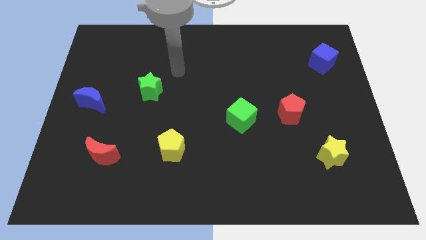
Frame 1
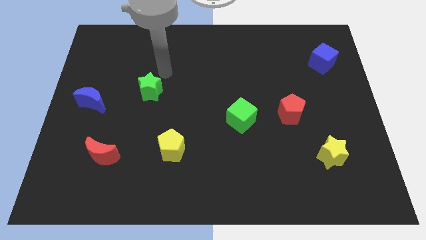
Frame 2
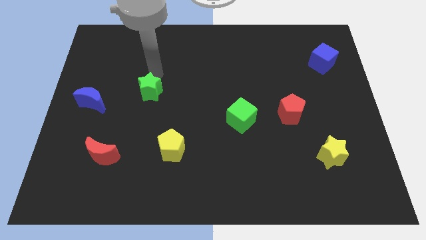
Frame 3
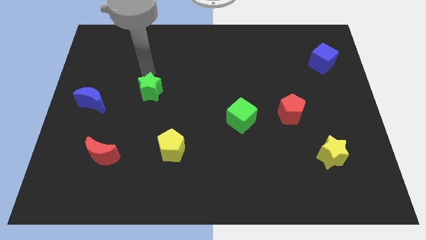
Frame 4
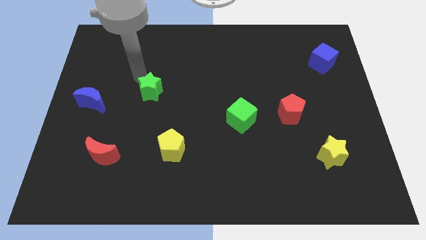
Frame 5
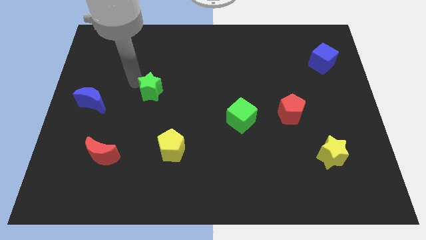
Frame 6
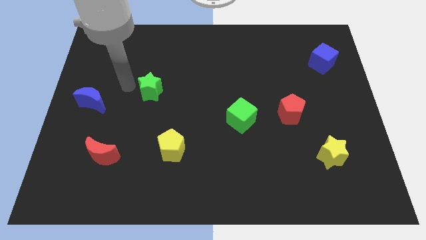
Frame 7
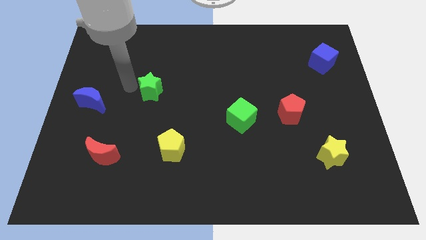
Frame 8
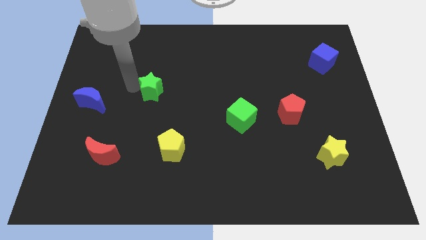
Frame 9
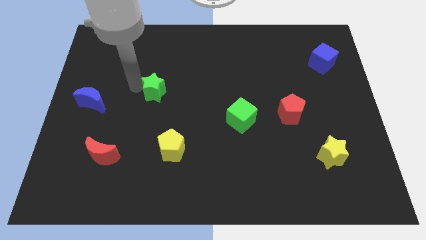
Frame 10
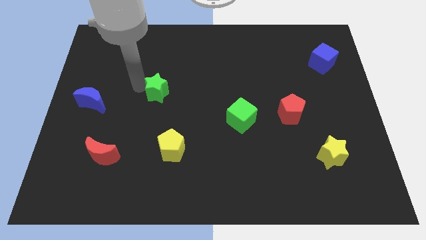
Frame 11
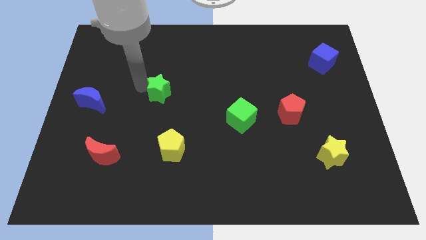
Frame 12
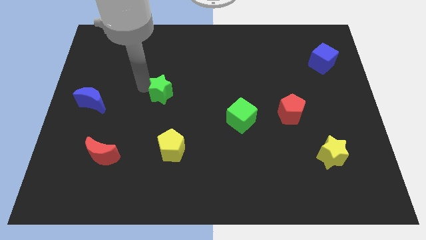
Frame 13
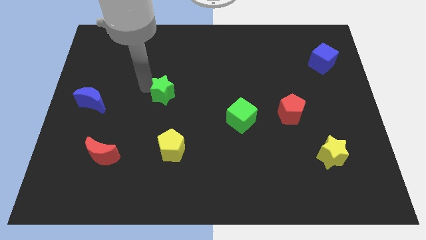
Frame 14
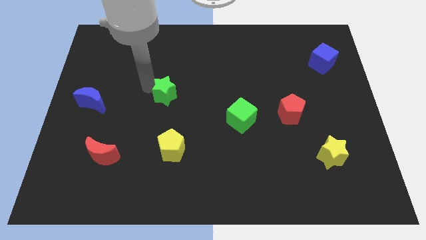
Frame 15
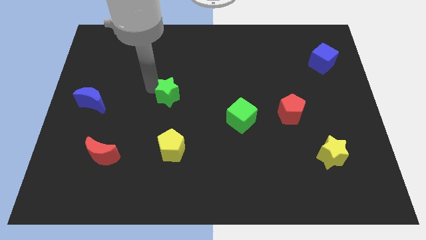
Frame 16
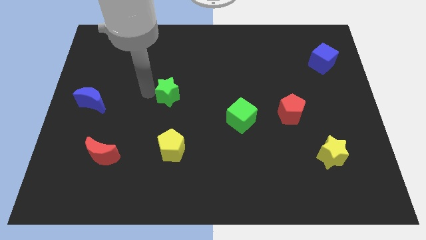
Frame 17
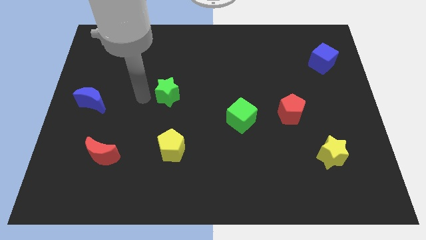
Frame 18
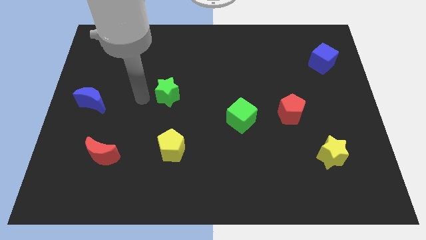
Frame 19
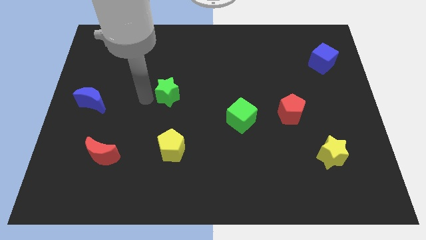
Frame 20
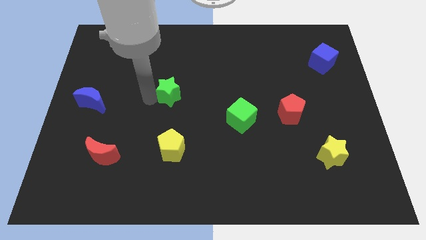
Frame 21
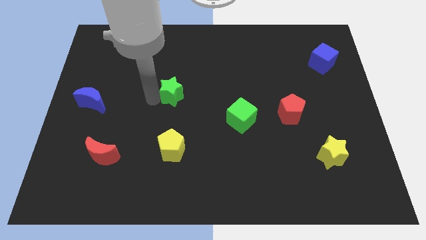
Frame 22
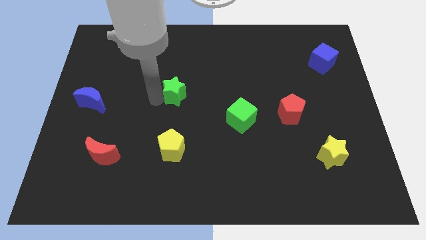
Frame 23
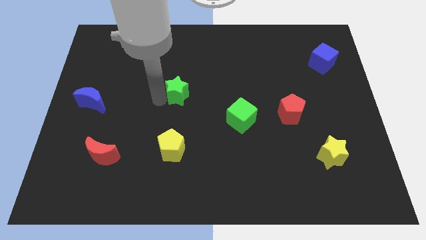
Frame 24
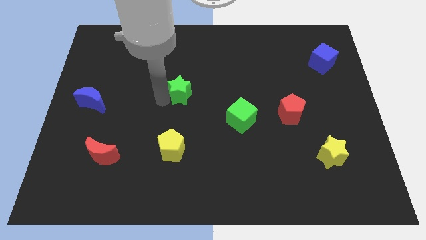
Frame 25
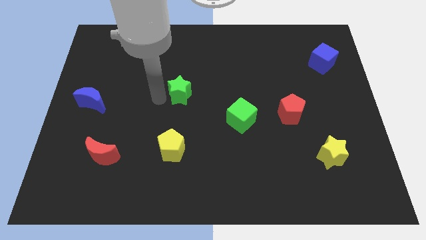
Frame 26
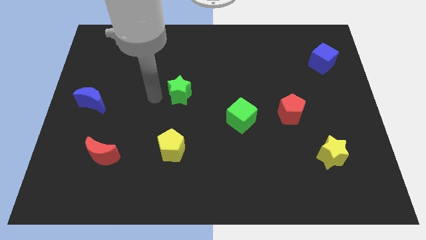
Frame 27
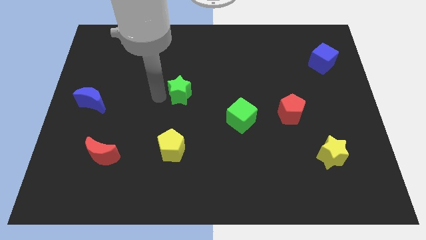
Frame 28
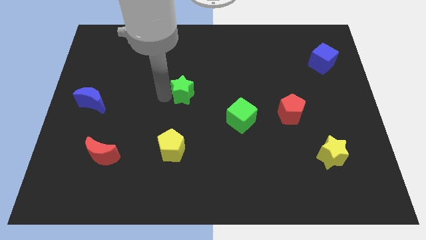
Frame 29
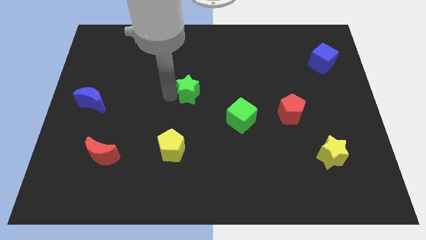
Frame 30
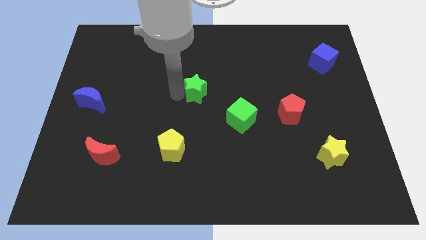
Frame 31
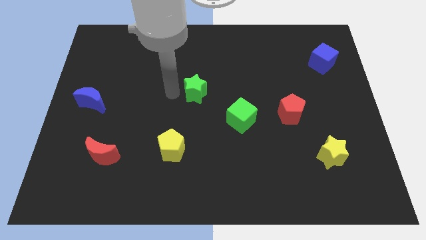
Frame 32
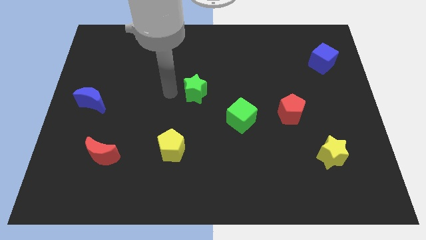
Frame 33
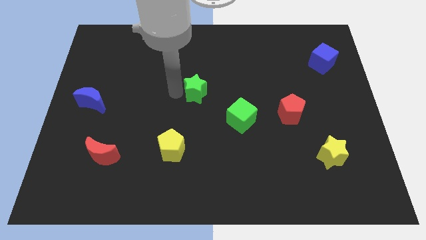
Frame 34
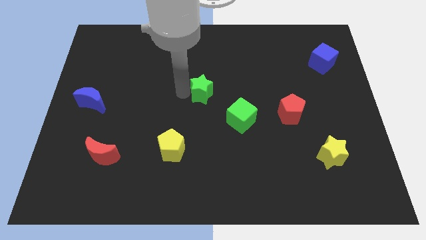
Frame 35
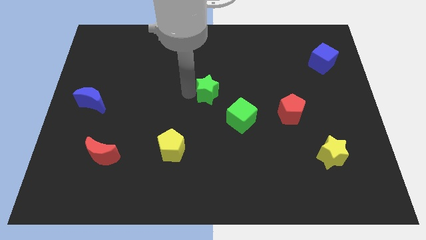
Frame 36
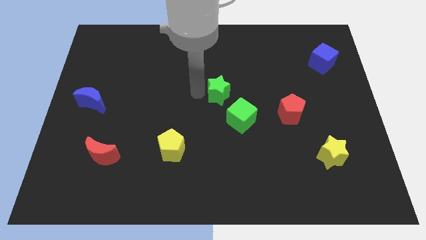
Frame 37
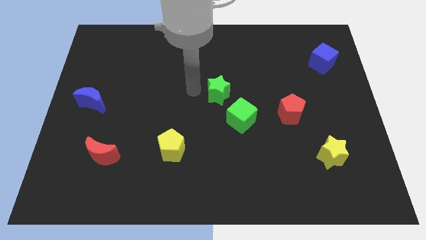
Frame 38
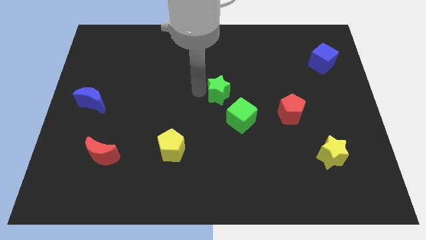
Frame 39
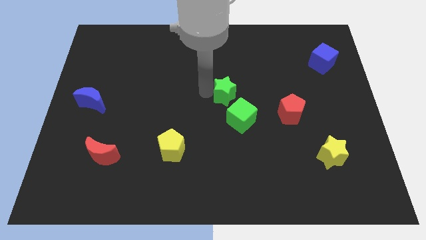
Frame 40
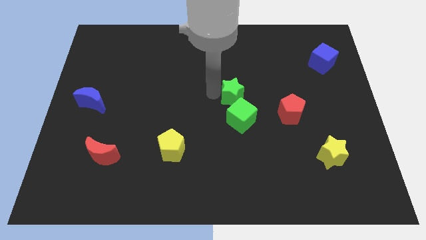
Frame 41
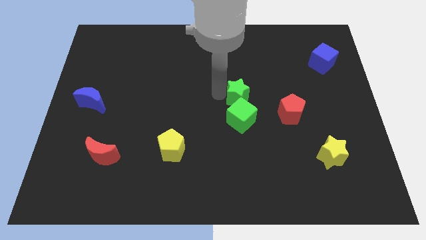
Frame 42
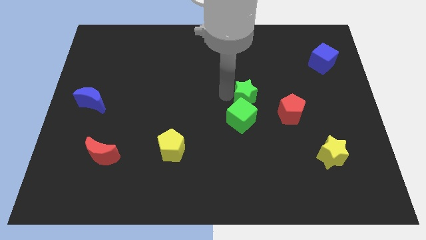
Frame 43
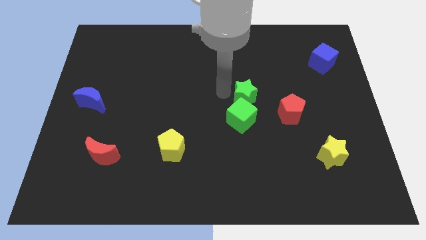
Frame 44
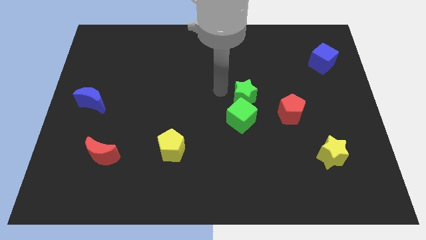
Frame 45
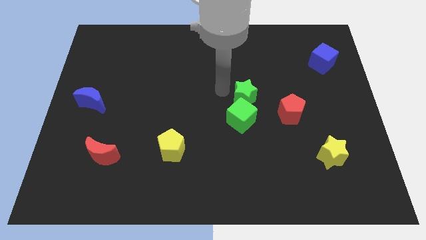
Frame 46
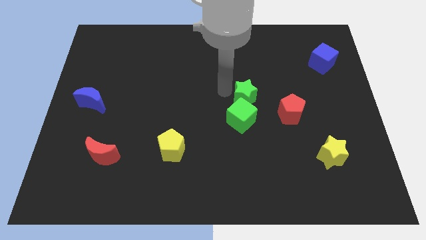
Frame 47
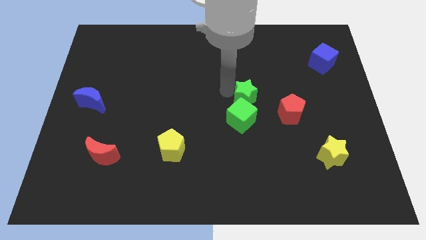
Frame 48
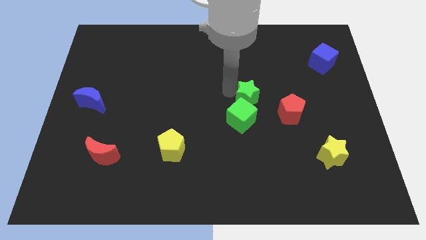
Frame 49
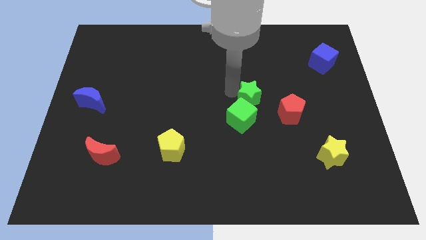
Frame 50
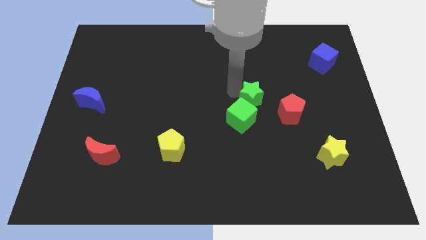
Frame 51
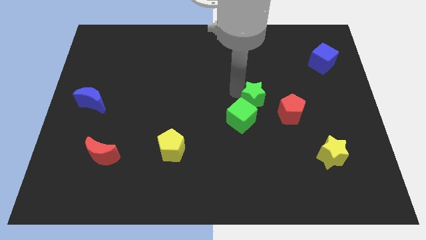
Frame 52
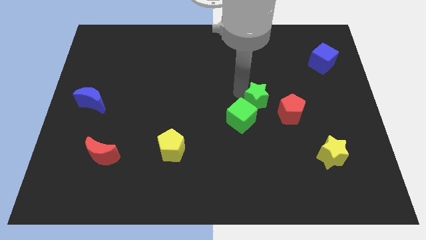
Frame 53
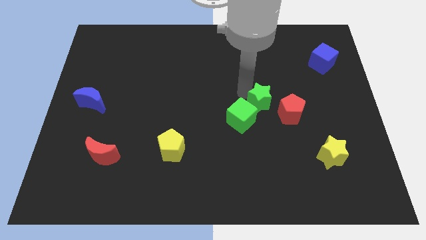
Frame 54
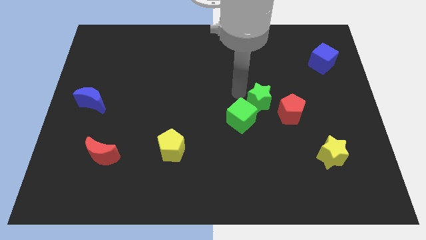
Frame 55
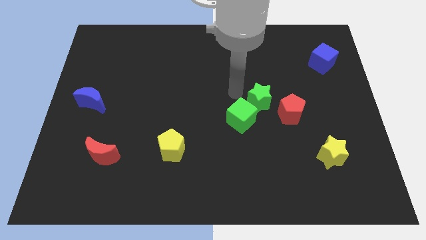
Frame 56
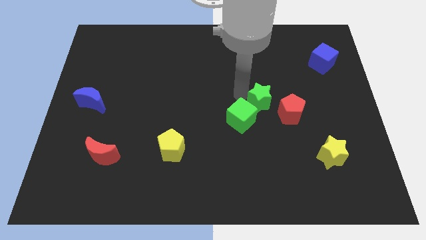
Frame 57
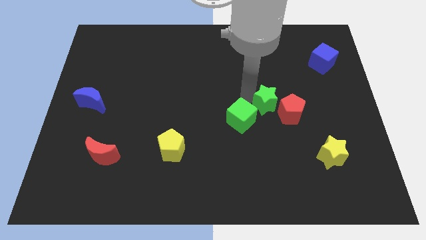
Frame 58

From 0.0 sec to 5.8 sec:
put the green star towards the red pentagon

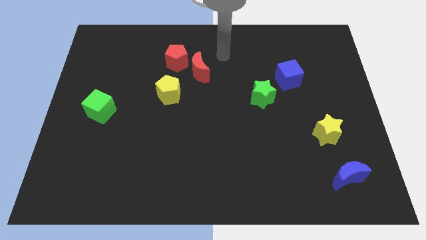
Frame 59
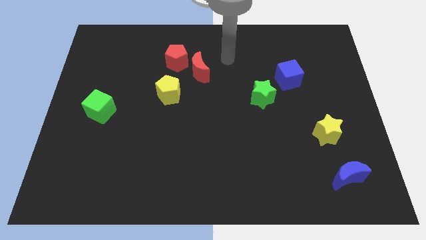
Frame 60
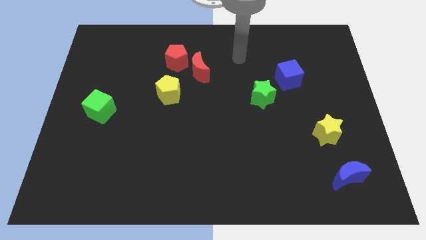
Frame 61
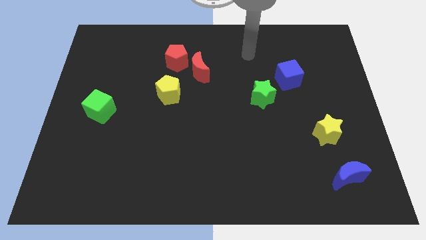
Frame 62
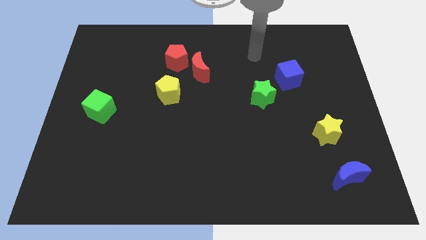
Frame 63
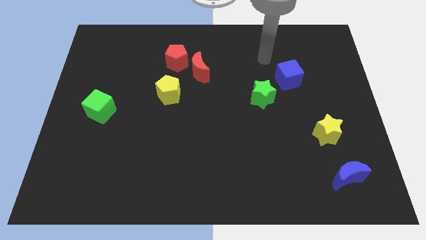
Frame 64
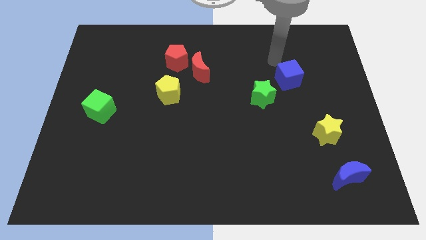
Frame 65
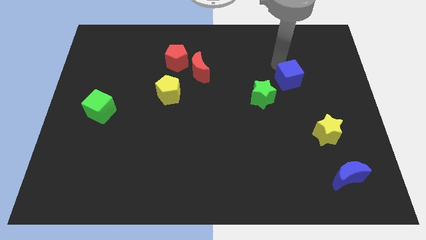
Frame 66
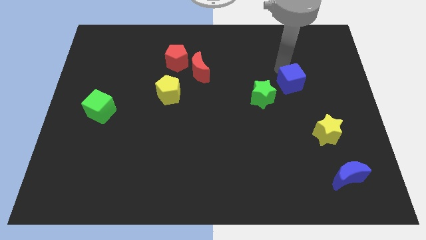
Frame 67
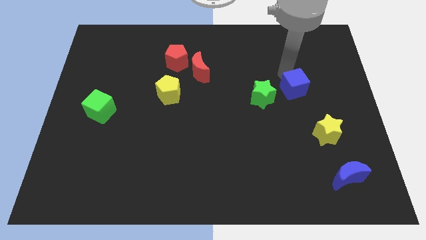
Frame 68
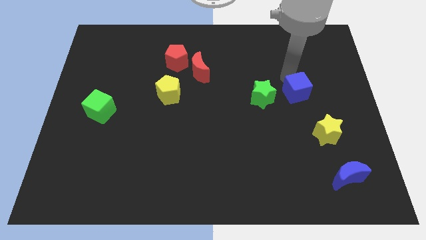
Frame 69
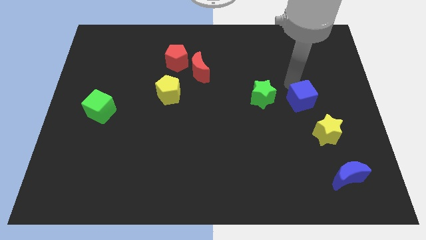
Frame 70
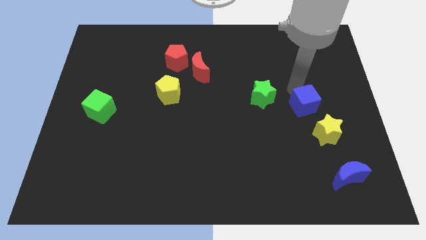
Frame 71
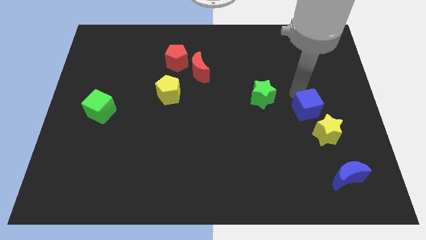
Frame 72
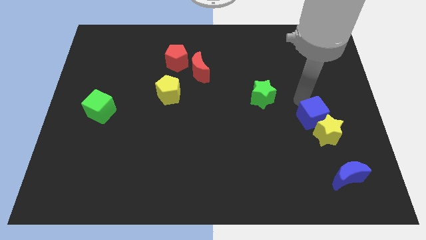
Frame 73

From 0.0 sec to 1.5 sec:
put the blue cube close to the yellow star
